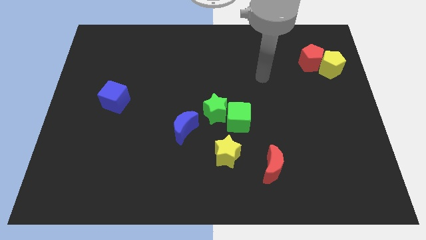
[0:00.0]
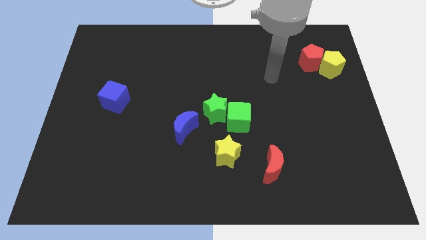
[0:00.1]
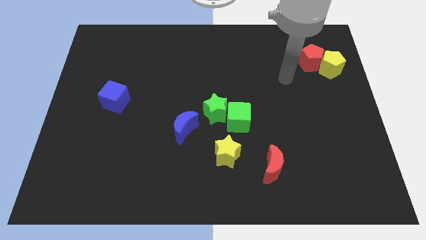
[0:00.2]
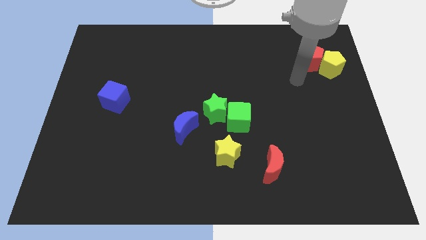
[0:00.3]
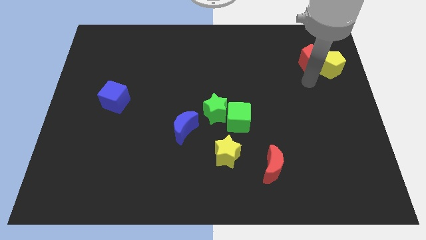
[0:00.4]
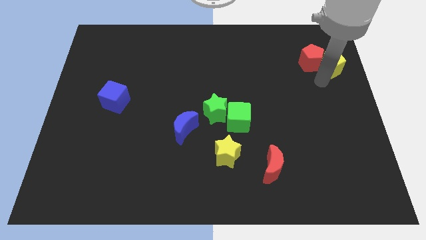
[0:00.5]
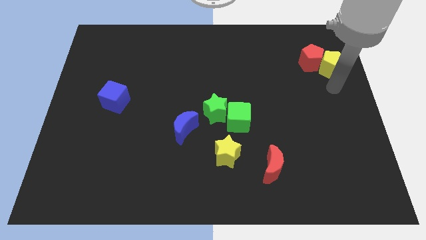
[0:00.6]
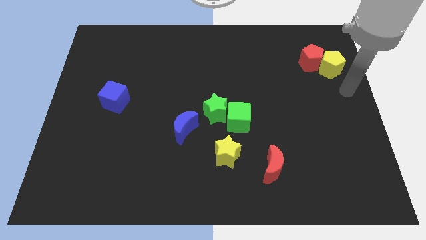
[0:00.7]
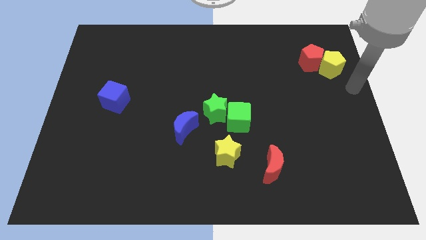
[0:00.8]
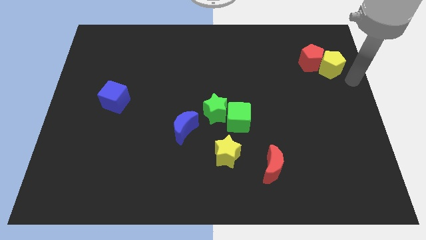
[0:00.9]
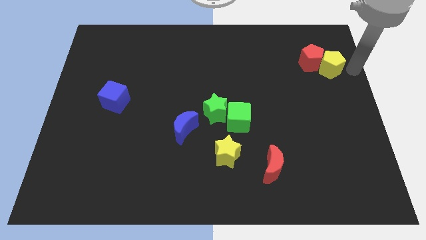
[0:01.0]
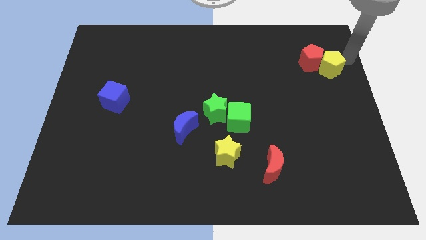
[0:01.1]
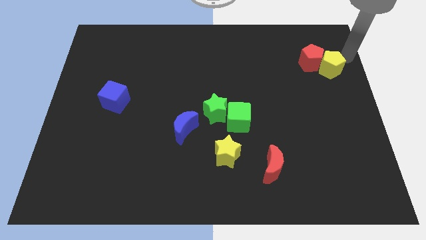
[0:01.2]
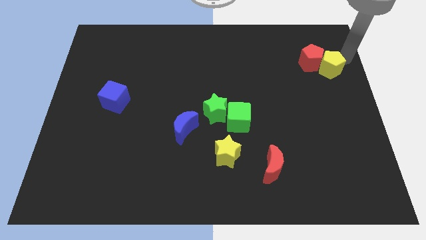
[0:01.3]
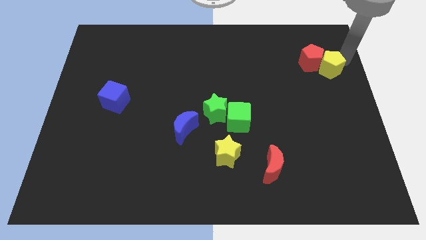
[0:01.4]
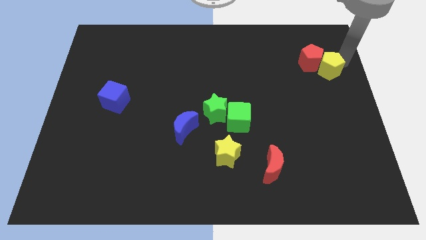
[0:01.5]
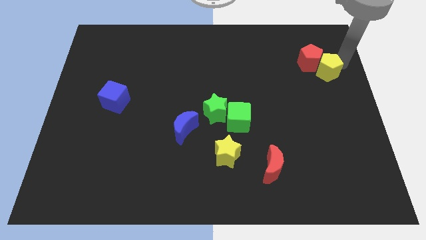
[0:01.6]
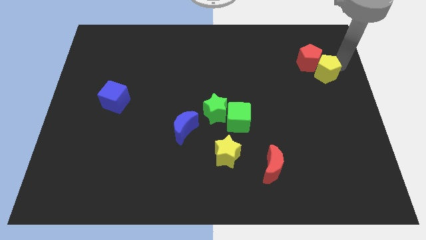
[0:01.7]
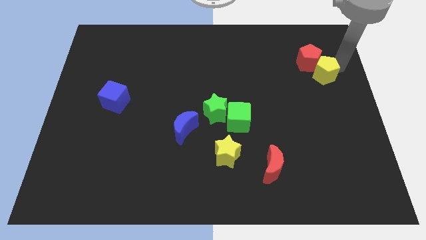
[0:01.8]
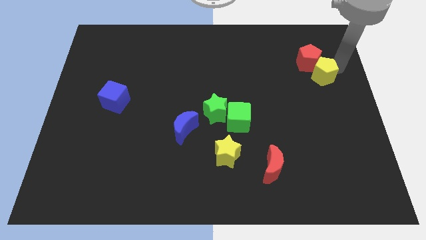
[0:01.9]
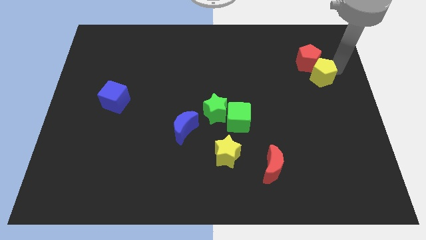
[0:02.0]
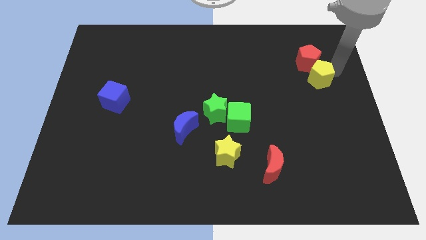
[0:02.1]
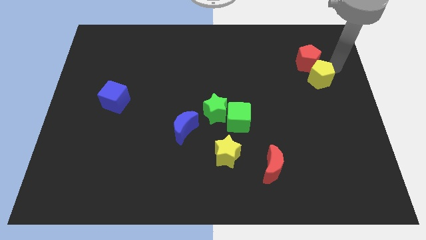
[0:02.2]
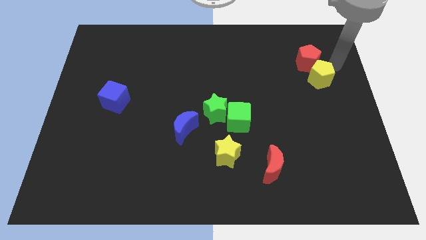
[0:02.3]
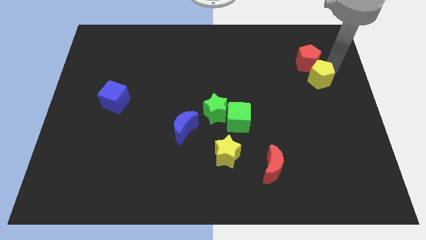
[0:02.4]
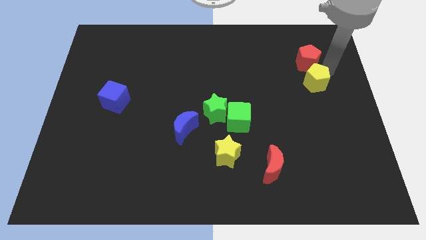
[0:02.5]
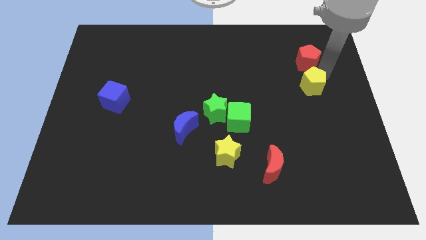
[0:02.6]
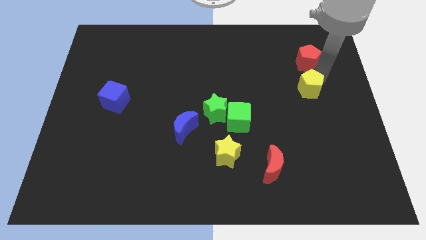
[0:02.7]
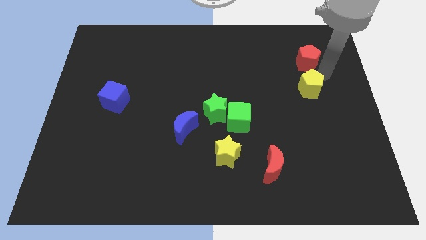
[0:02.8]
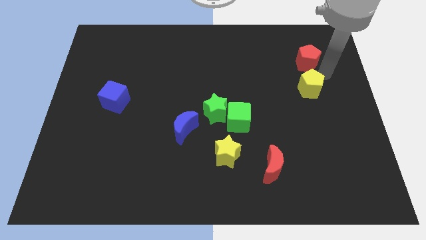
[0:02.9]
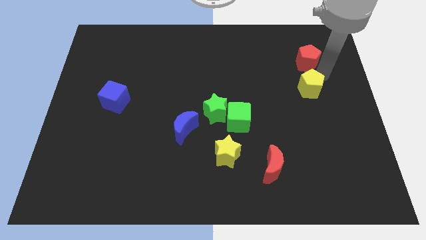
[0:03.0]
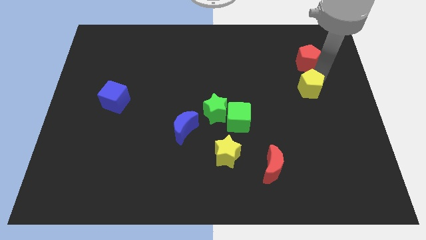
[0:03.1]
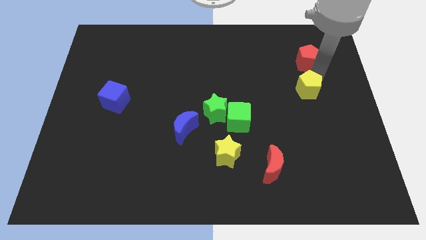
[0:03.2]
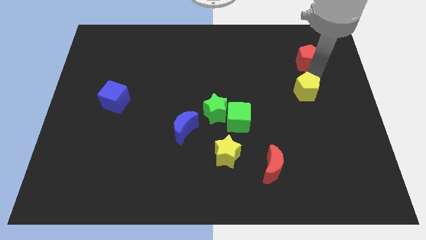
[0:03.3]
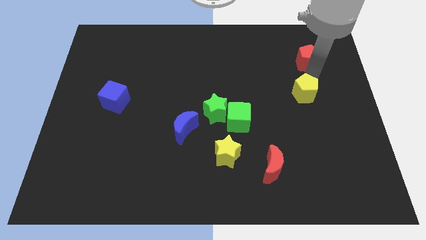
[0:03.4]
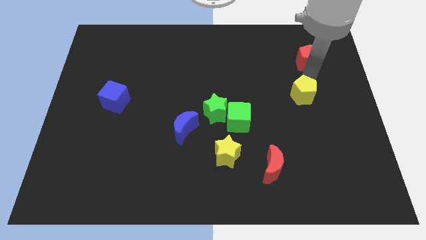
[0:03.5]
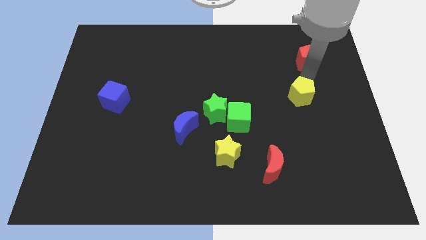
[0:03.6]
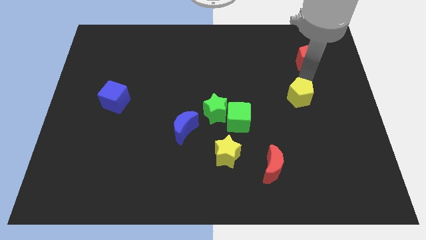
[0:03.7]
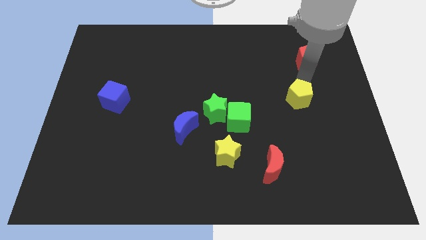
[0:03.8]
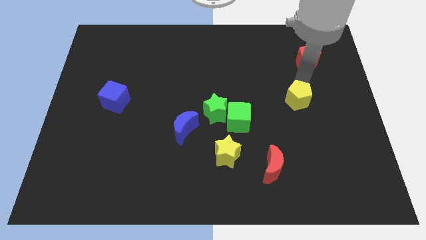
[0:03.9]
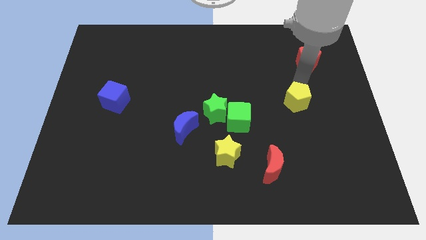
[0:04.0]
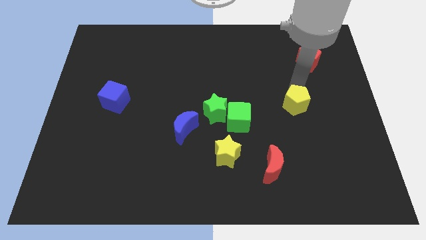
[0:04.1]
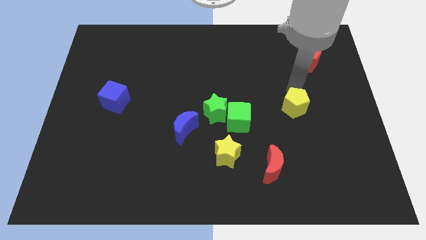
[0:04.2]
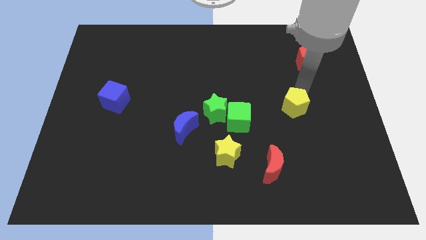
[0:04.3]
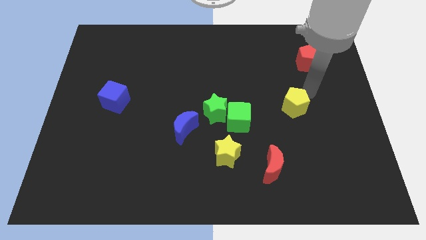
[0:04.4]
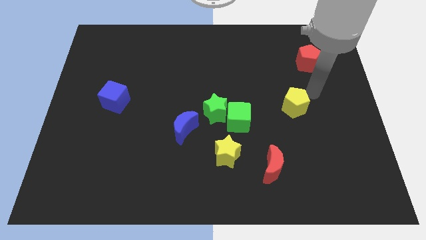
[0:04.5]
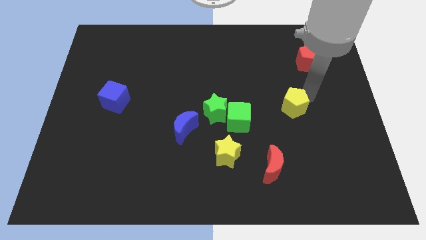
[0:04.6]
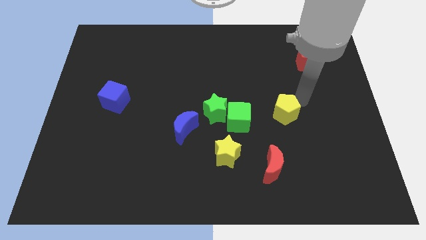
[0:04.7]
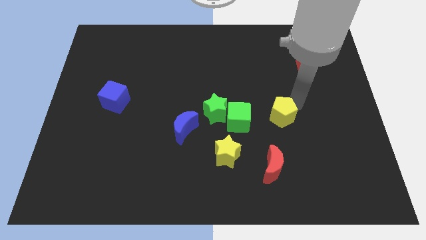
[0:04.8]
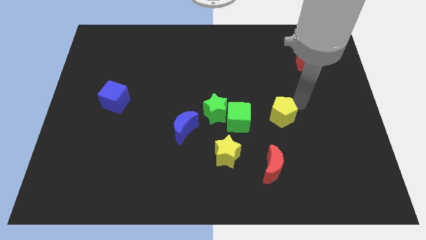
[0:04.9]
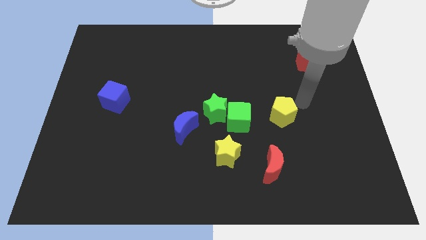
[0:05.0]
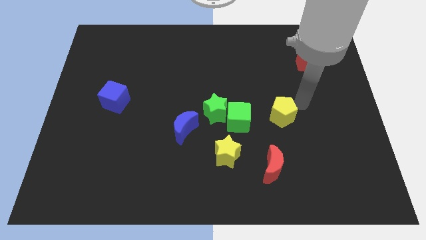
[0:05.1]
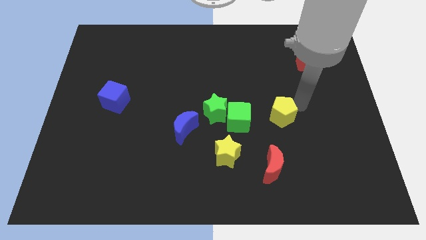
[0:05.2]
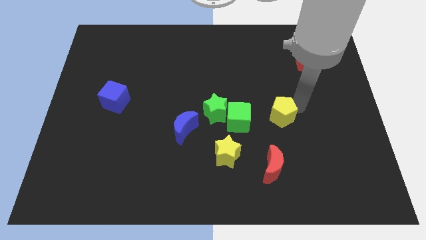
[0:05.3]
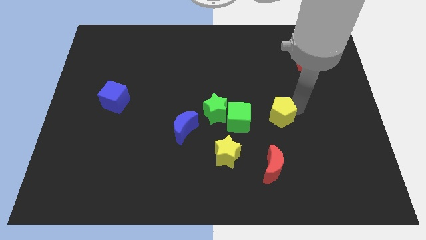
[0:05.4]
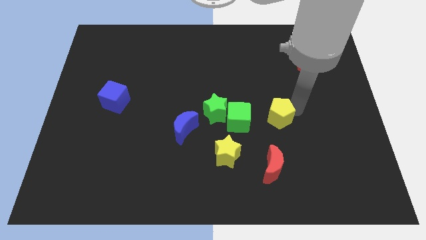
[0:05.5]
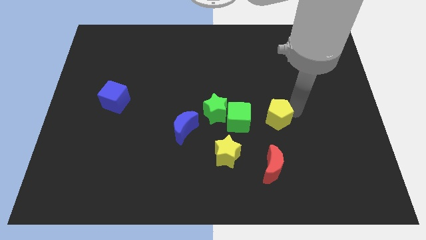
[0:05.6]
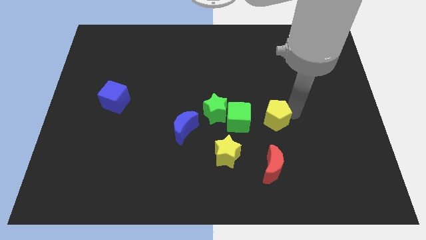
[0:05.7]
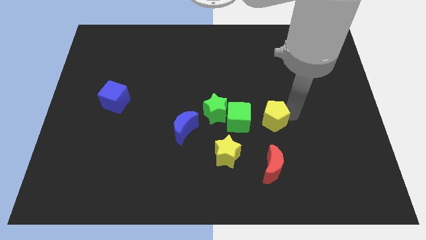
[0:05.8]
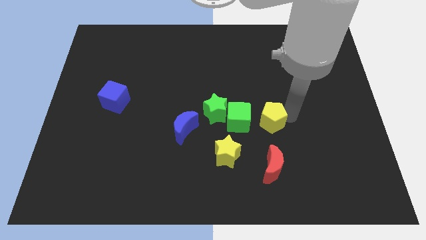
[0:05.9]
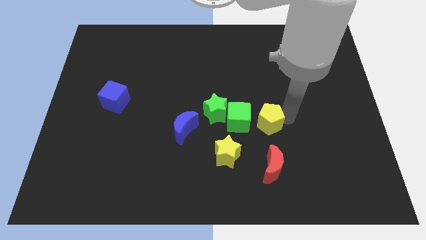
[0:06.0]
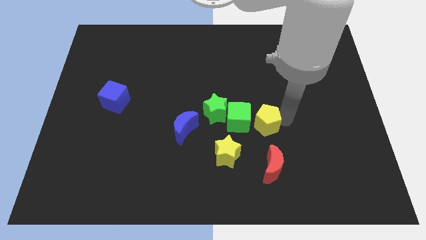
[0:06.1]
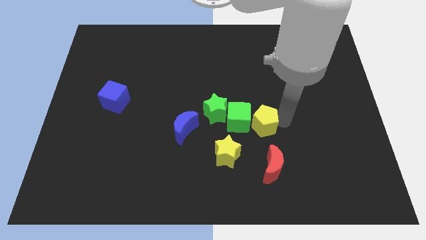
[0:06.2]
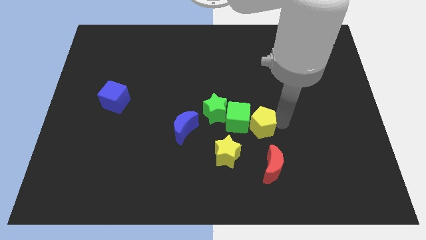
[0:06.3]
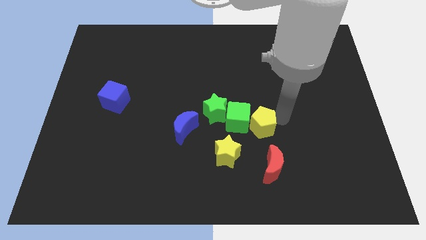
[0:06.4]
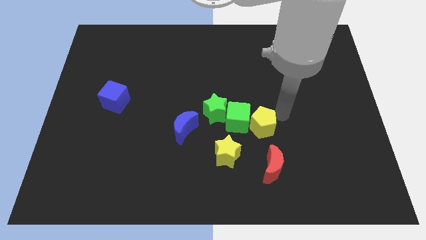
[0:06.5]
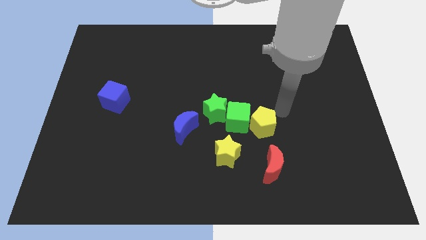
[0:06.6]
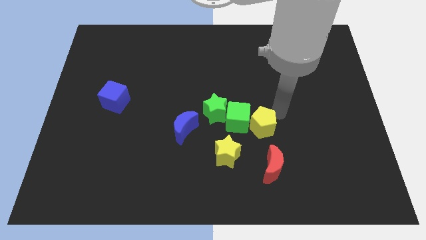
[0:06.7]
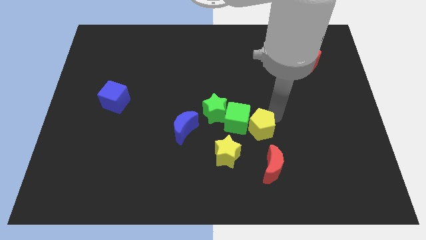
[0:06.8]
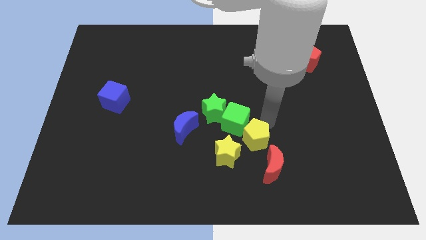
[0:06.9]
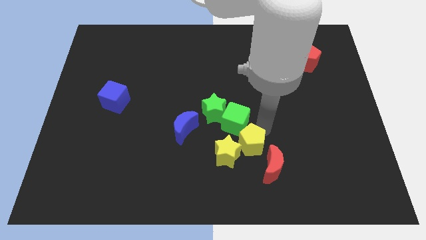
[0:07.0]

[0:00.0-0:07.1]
push the yellow pentagon towards the yellow star
